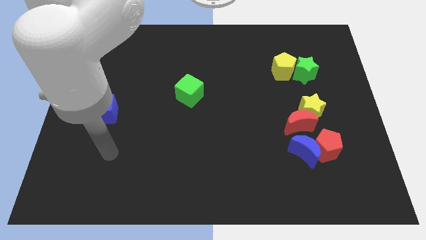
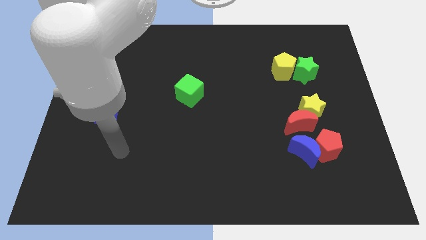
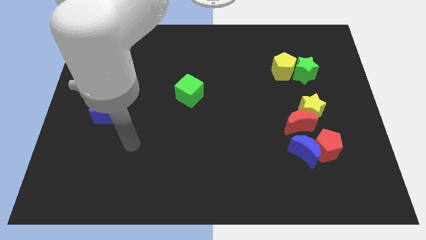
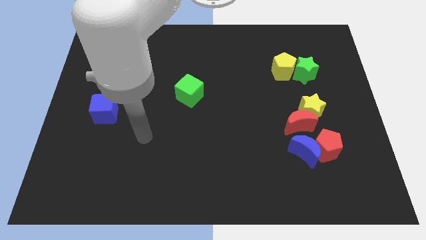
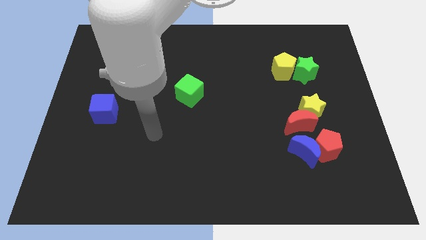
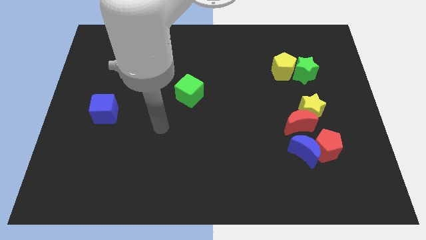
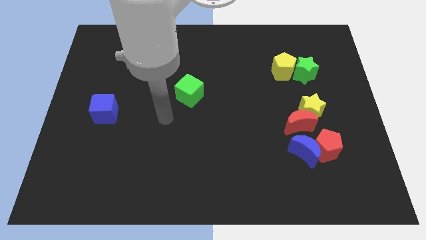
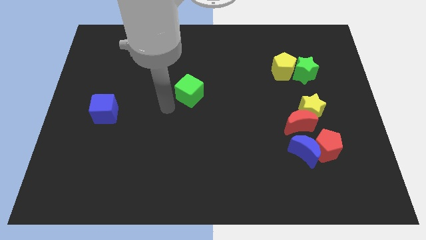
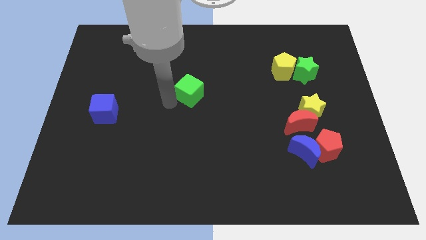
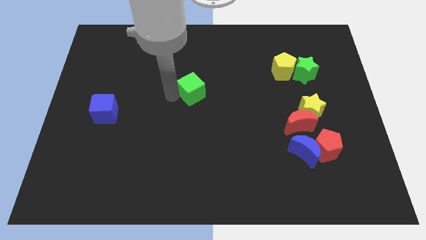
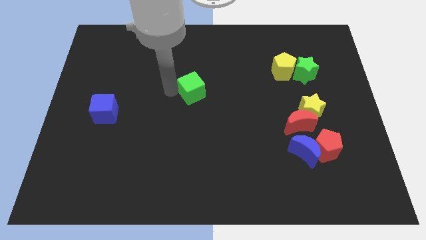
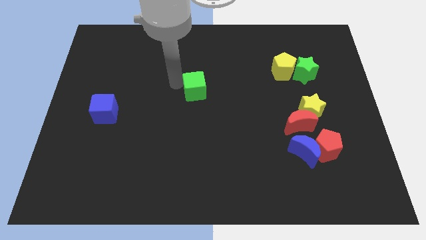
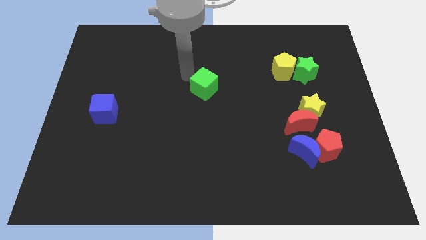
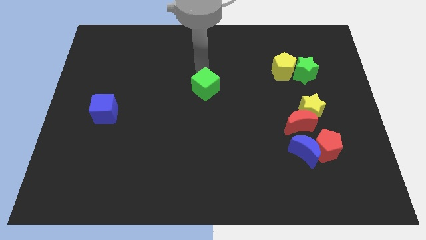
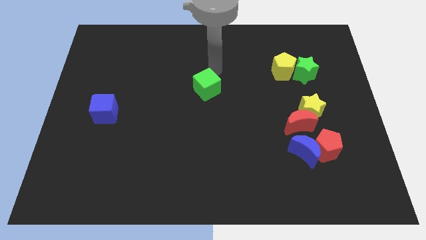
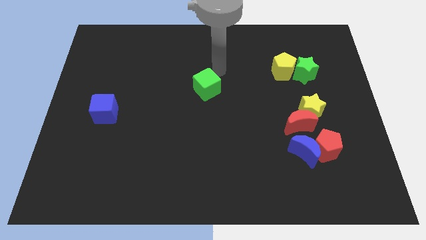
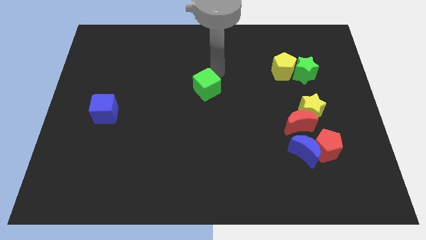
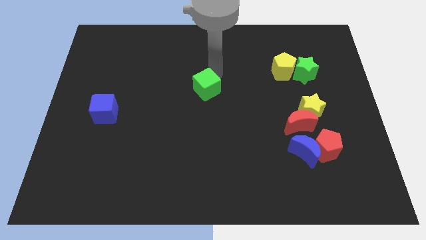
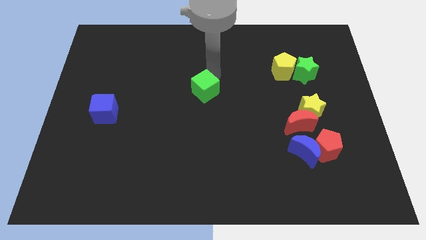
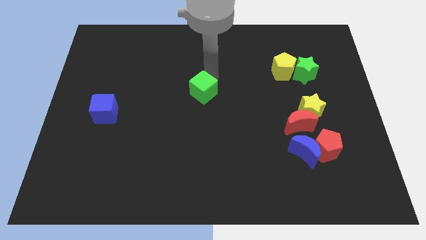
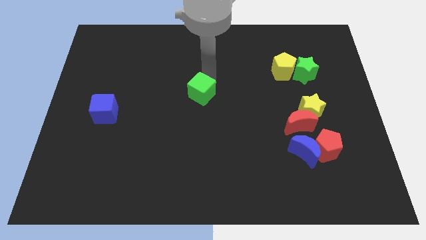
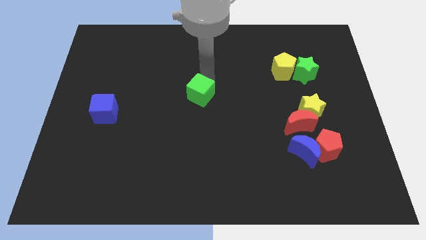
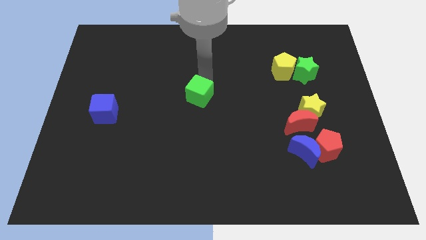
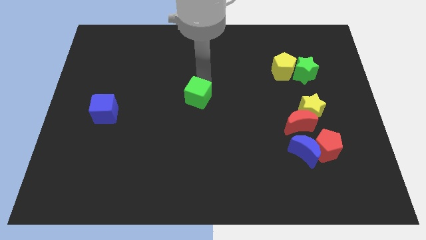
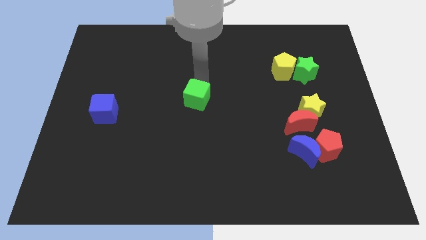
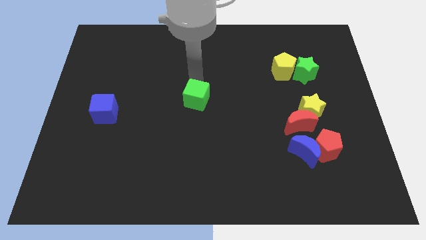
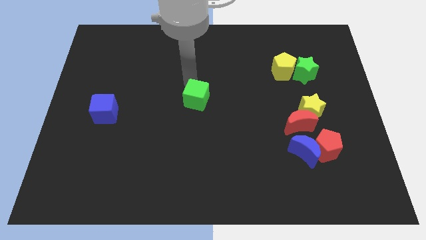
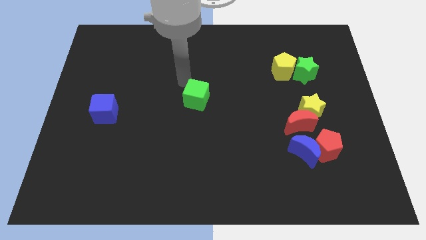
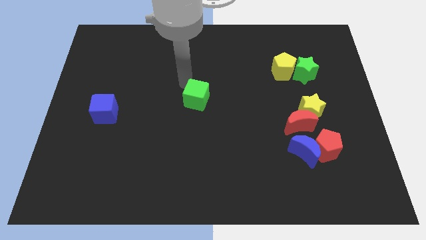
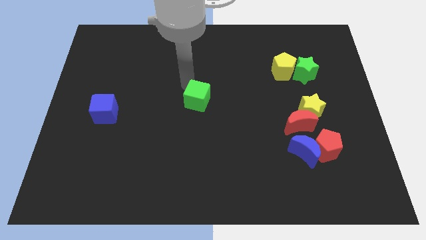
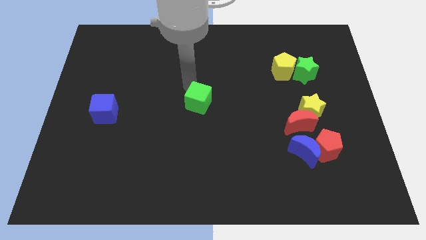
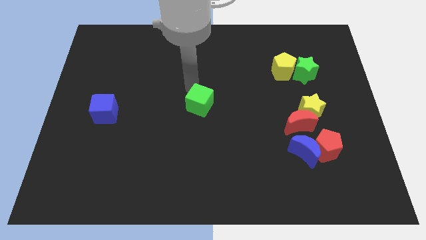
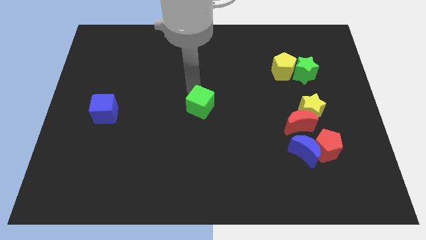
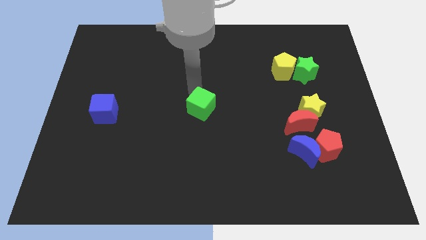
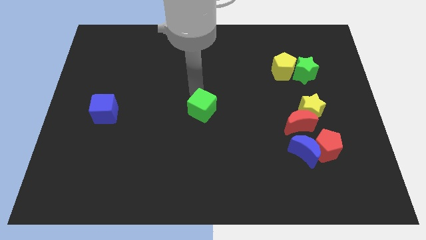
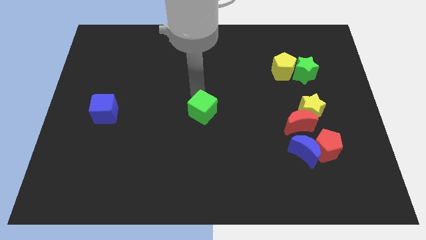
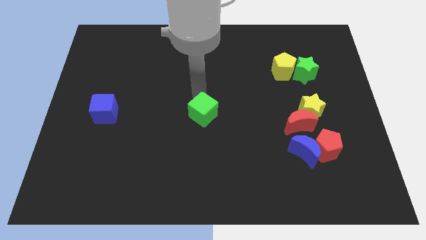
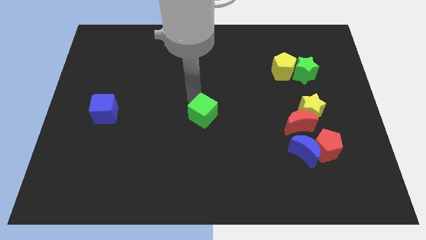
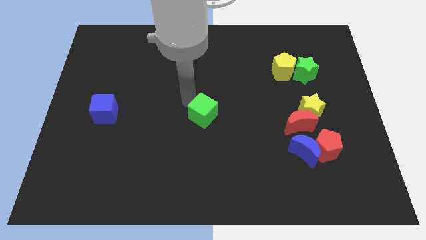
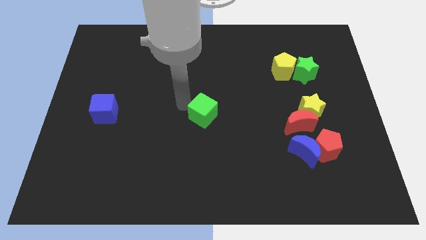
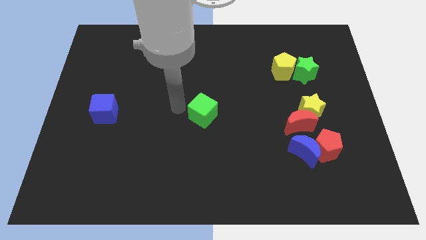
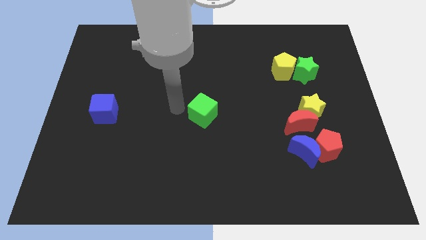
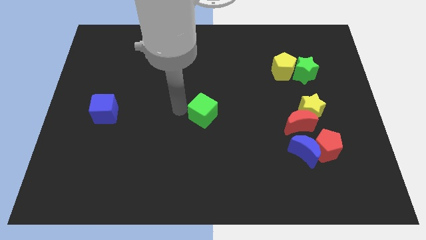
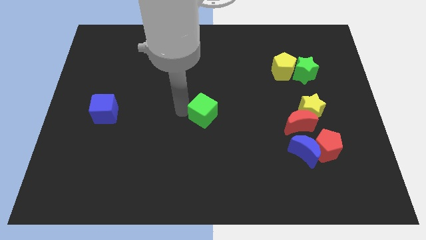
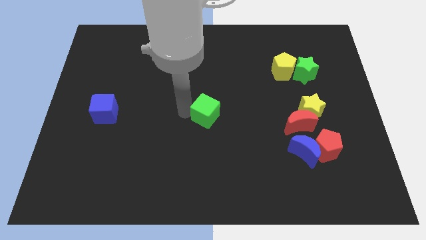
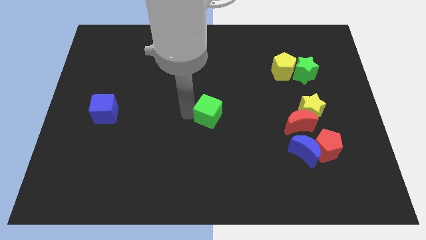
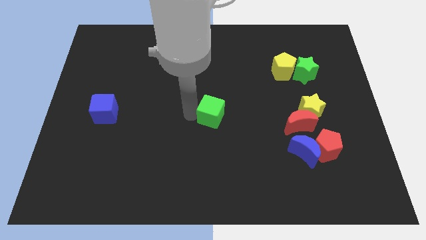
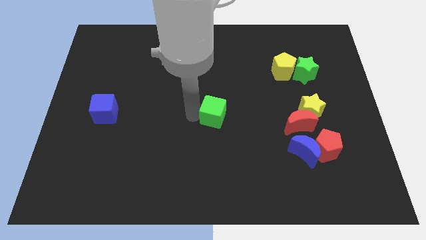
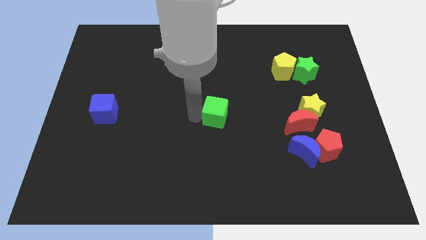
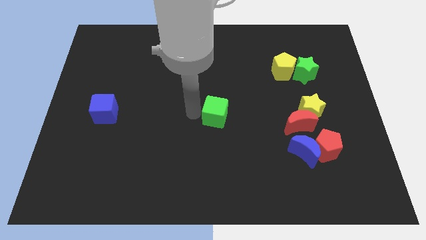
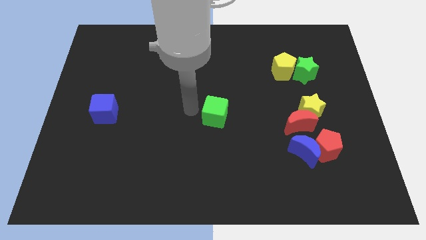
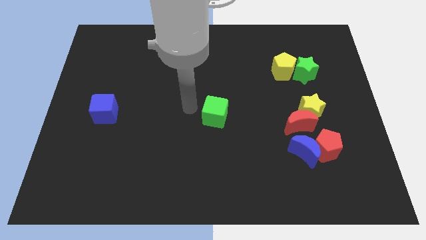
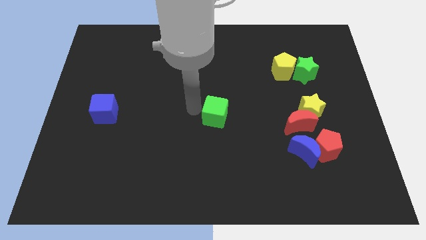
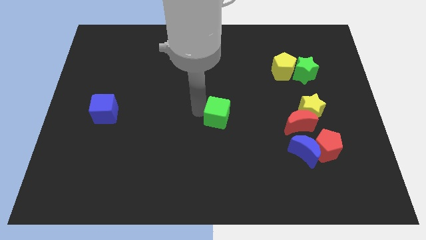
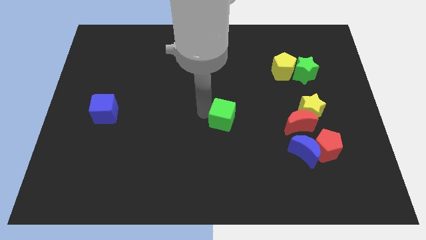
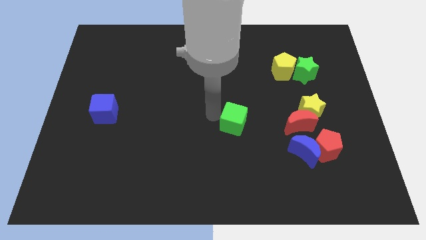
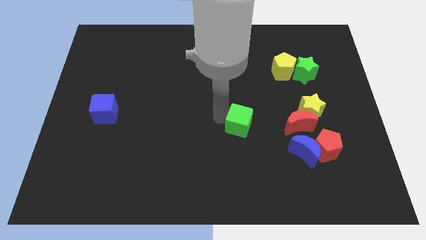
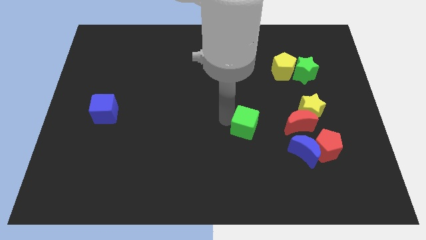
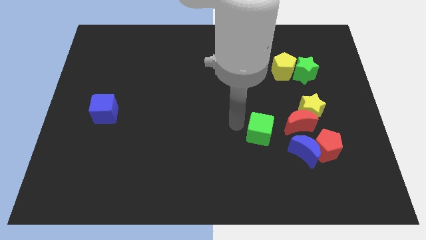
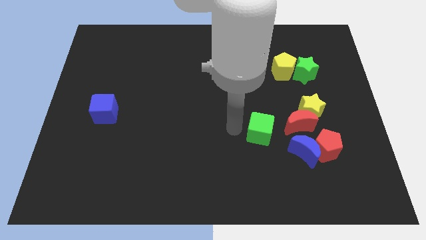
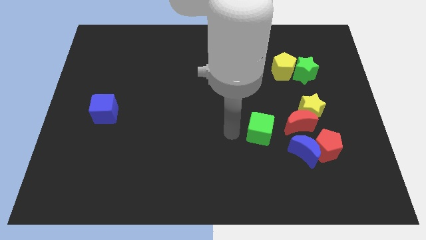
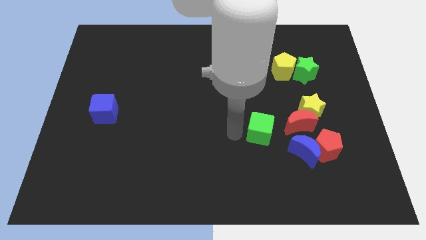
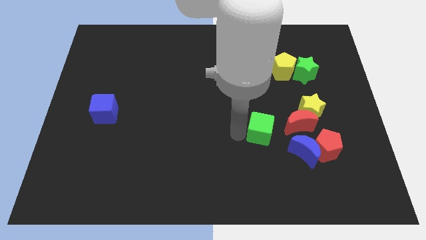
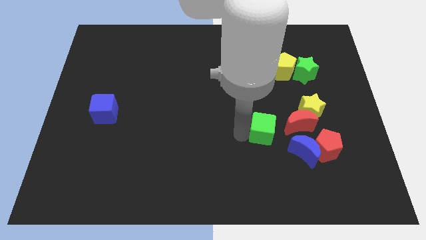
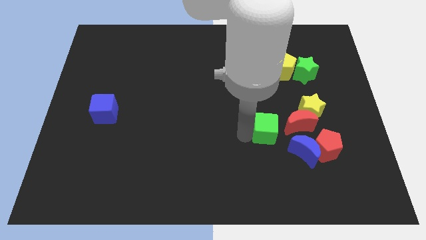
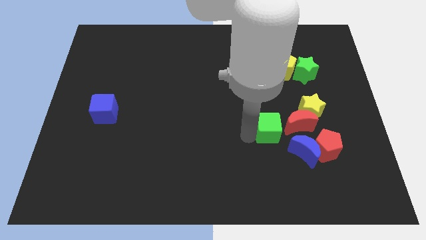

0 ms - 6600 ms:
move the green cube to the bottom left side of the yellow star

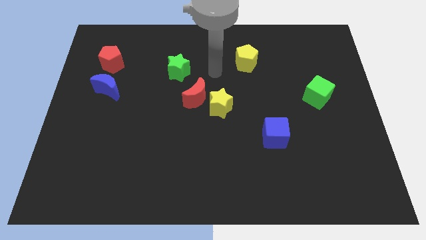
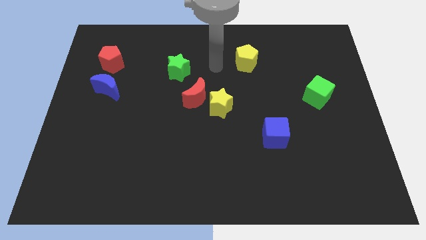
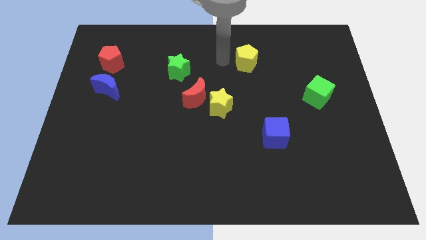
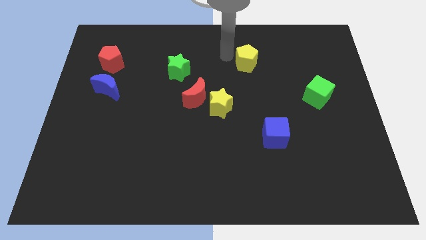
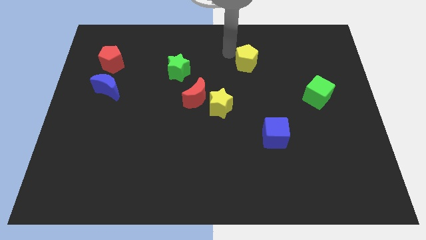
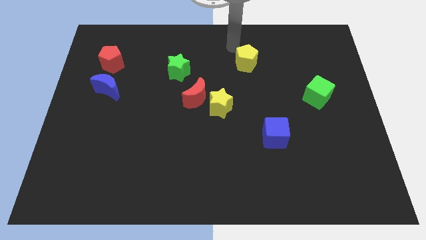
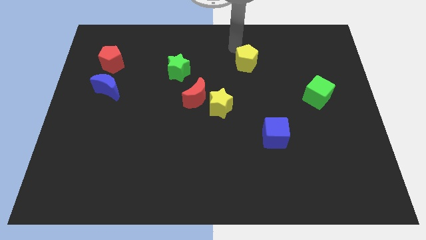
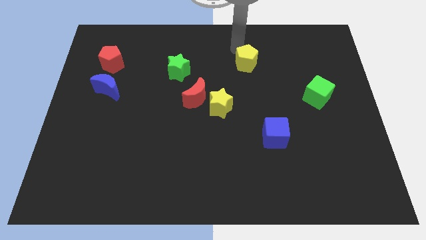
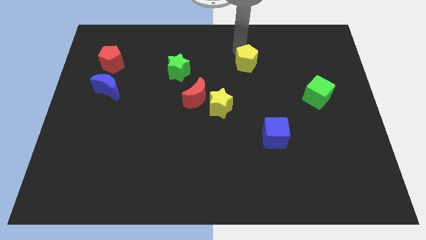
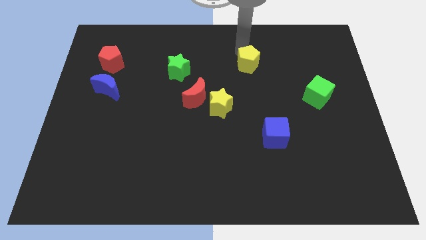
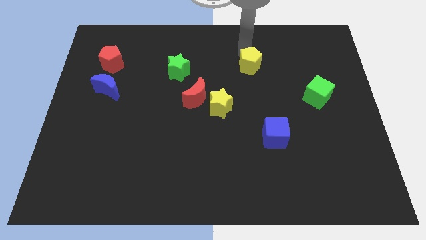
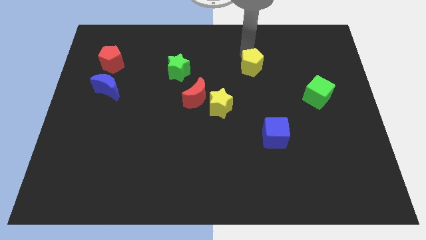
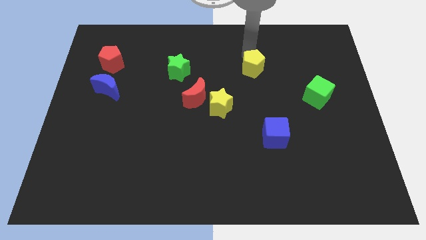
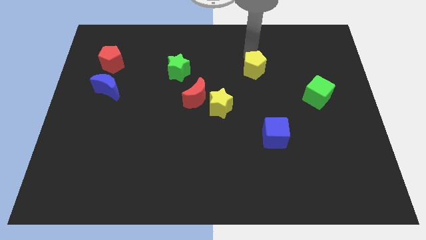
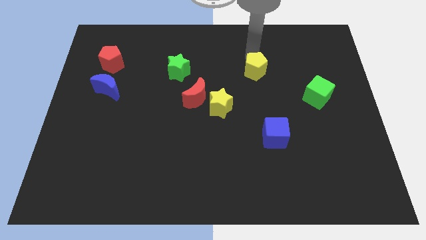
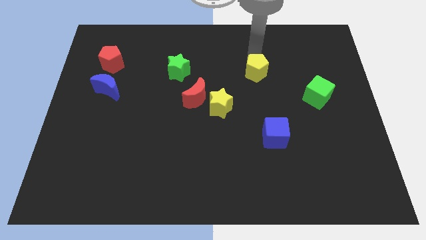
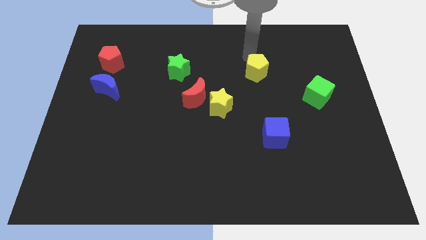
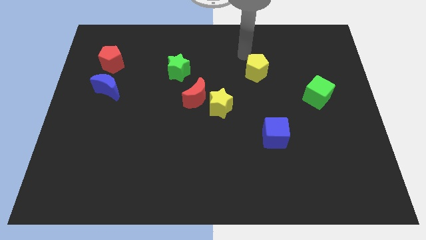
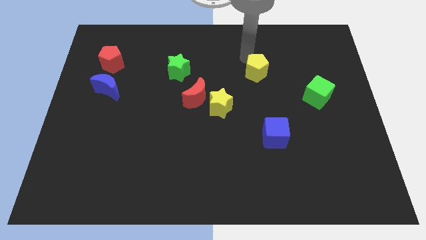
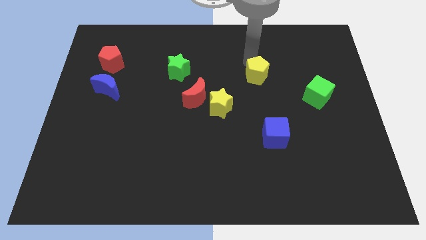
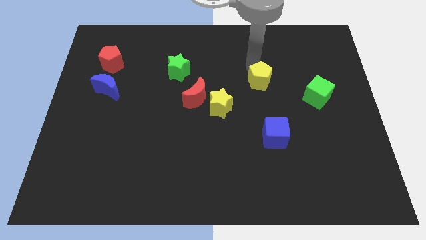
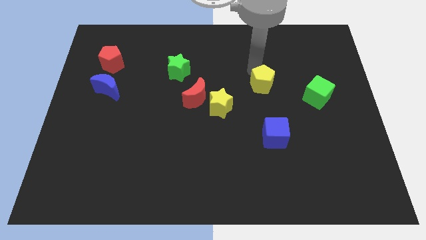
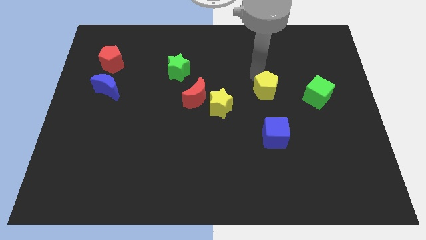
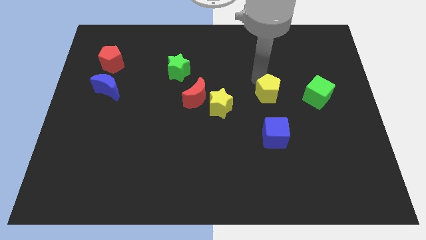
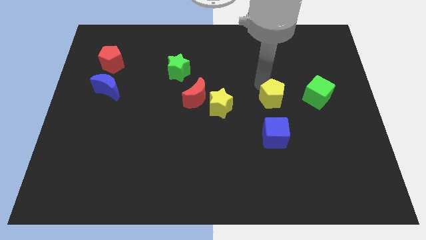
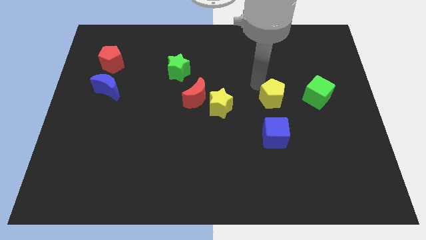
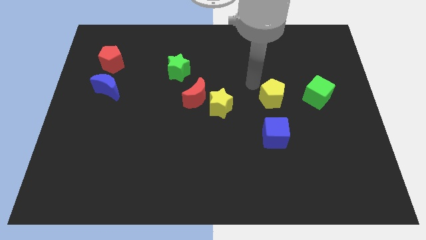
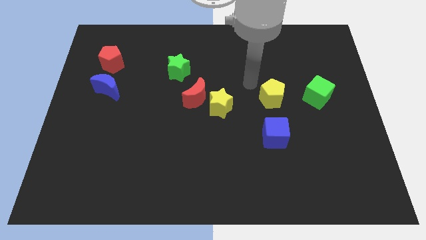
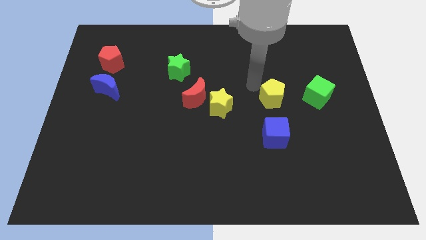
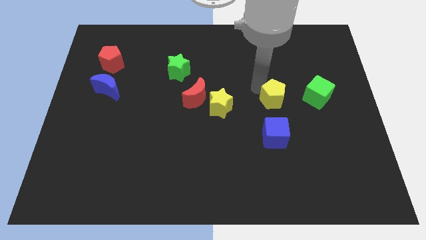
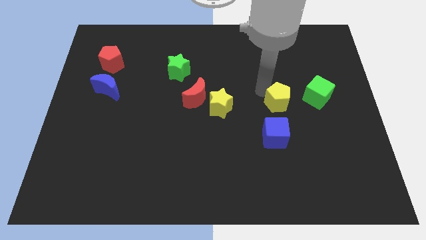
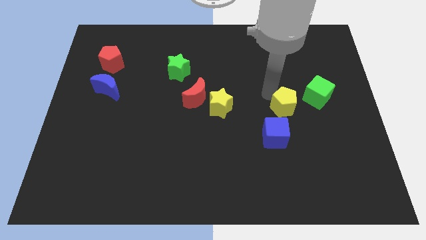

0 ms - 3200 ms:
move the yellow pentagon to the top right of the blue cube
